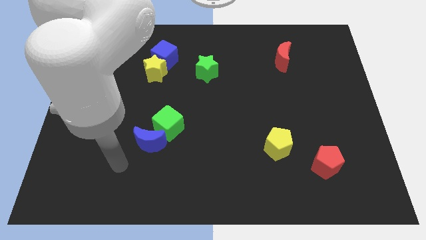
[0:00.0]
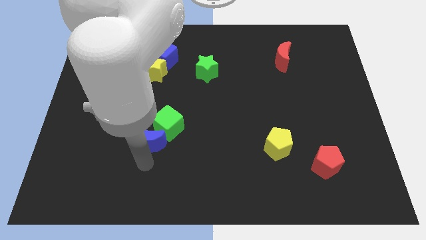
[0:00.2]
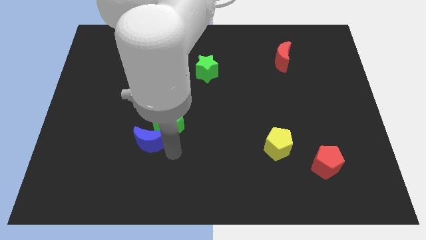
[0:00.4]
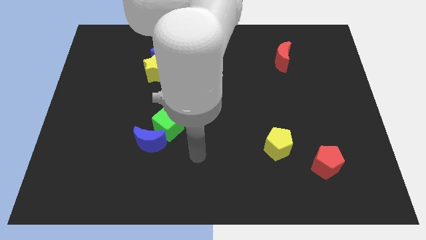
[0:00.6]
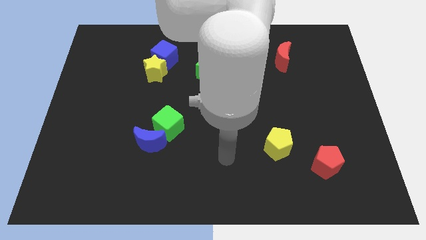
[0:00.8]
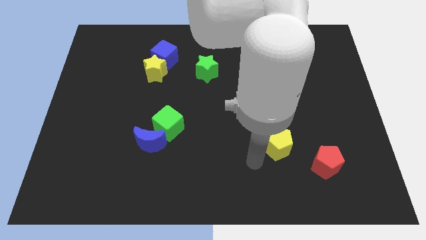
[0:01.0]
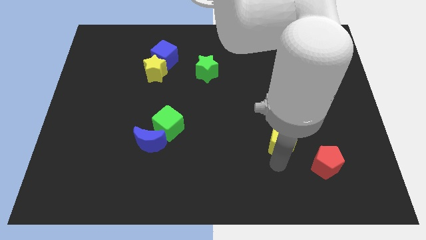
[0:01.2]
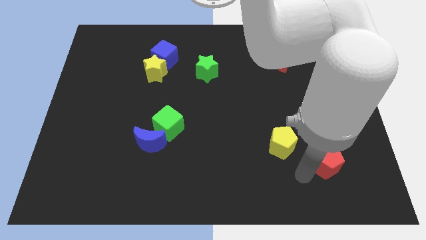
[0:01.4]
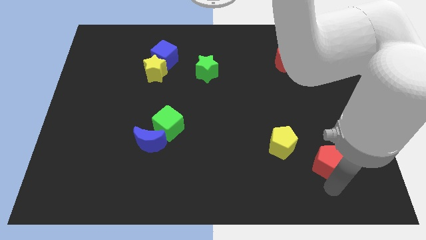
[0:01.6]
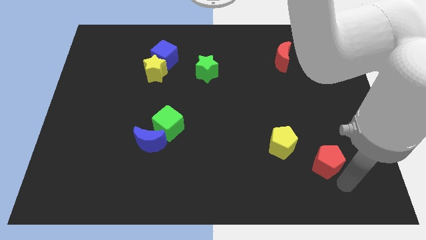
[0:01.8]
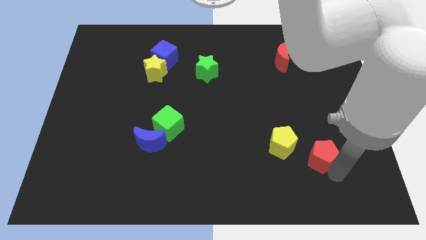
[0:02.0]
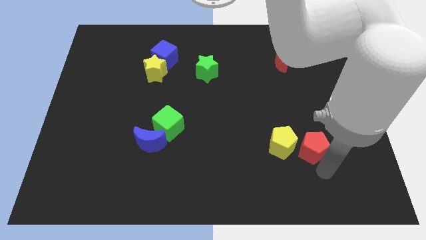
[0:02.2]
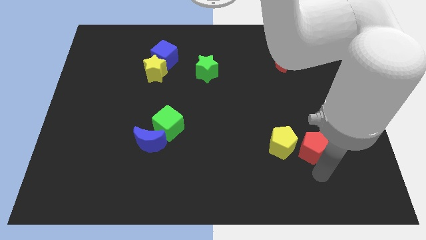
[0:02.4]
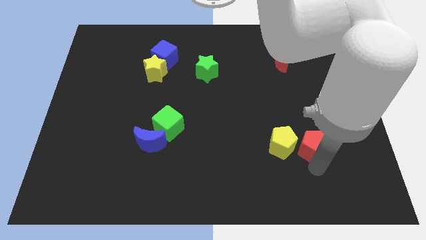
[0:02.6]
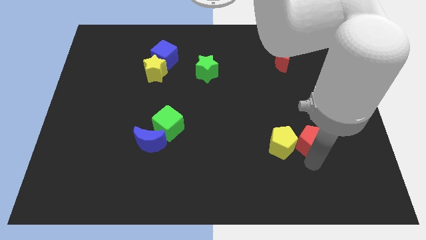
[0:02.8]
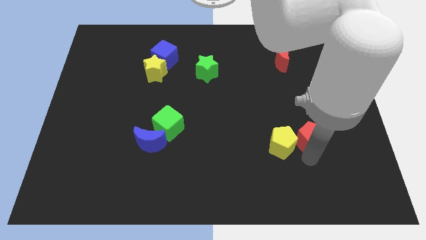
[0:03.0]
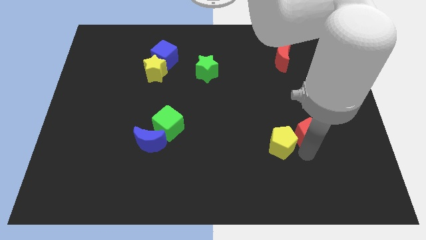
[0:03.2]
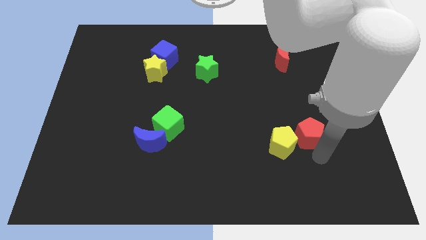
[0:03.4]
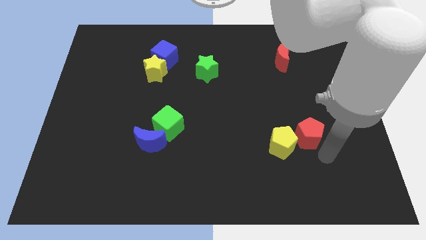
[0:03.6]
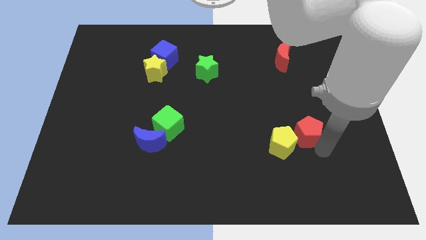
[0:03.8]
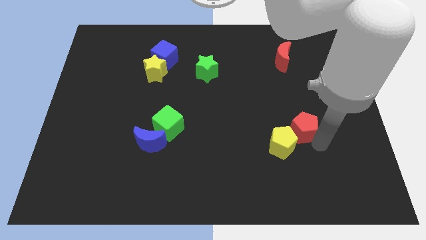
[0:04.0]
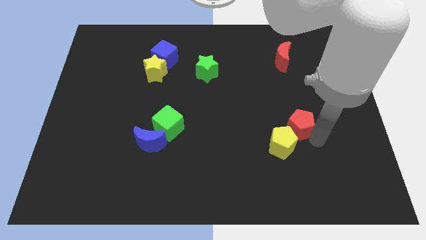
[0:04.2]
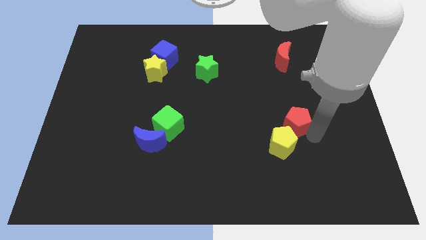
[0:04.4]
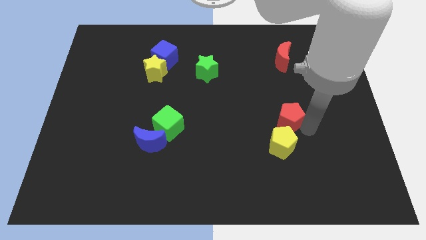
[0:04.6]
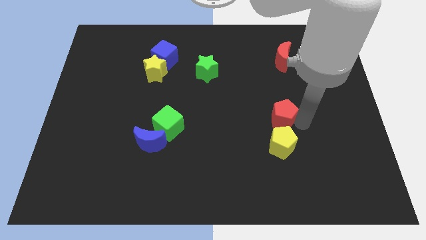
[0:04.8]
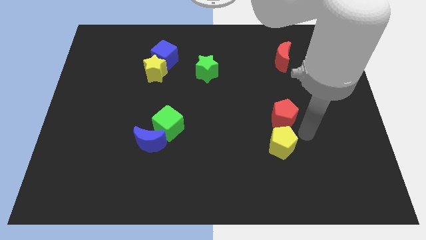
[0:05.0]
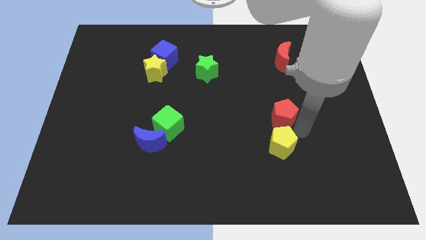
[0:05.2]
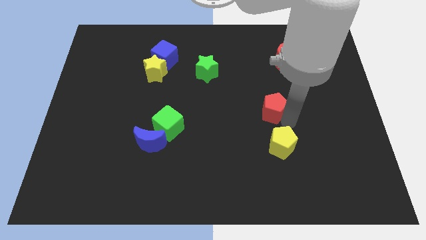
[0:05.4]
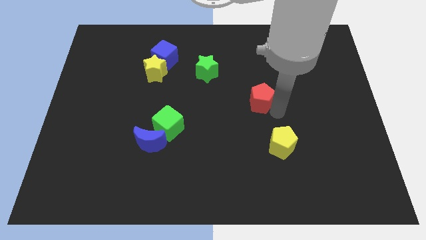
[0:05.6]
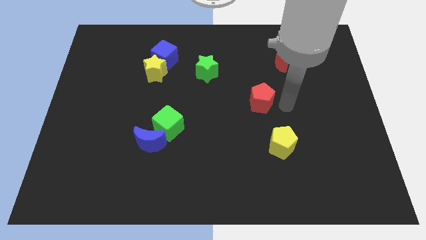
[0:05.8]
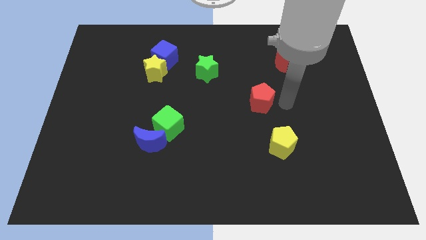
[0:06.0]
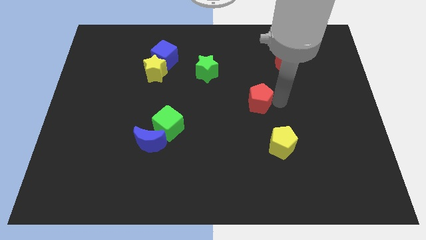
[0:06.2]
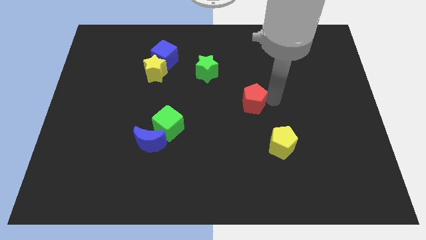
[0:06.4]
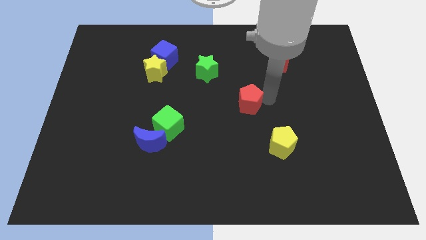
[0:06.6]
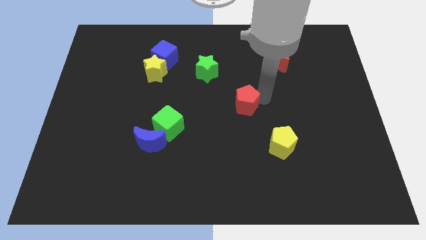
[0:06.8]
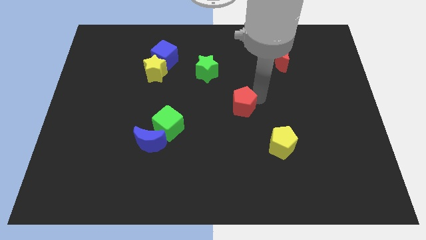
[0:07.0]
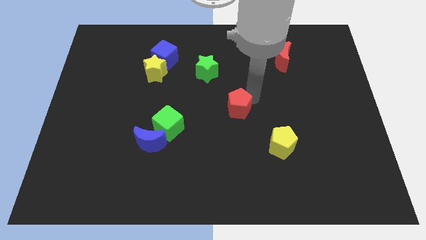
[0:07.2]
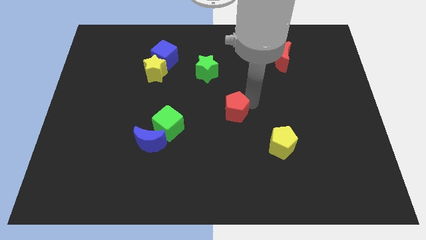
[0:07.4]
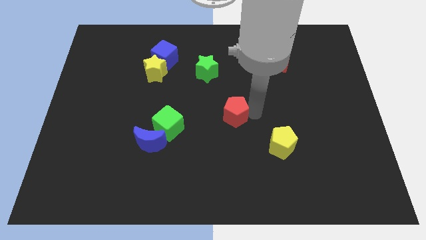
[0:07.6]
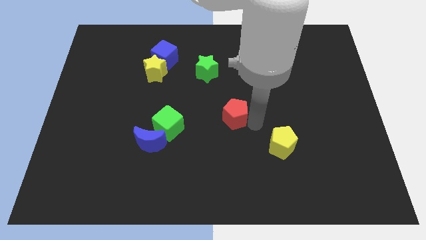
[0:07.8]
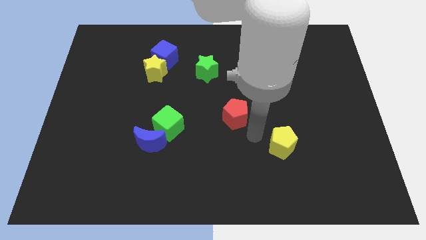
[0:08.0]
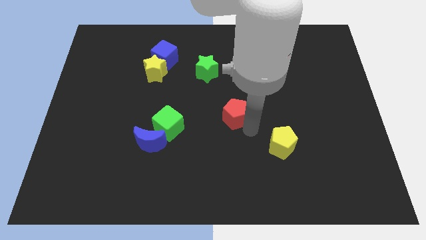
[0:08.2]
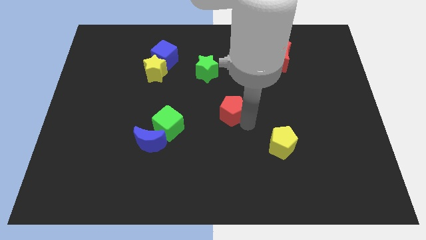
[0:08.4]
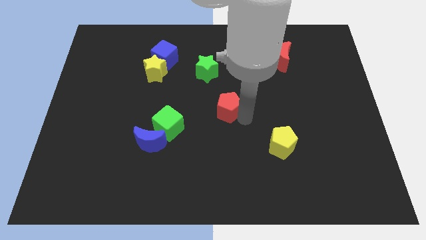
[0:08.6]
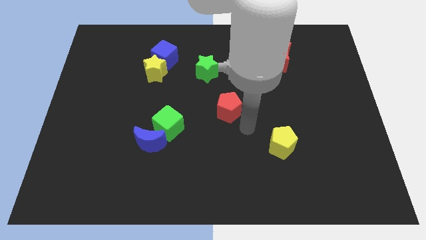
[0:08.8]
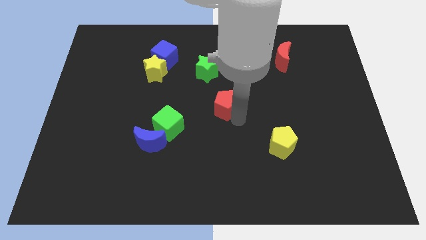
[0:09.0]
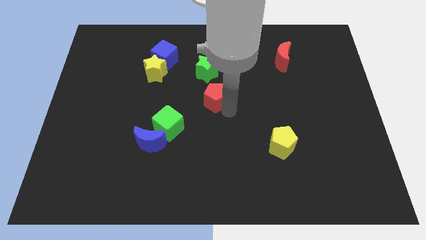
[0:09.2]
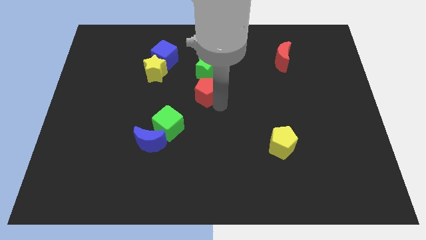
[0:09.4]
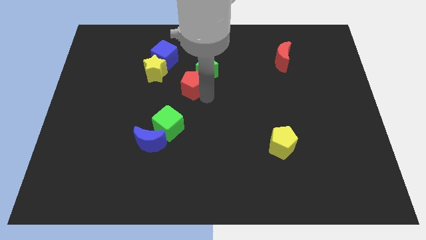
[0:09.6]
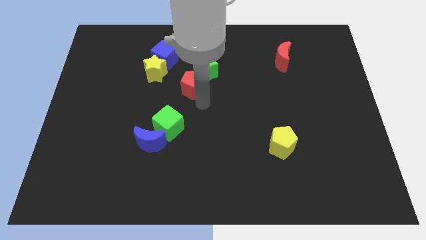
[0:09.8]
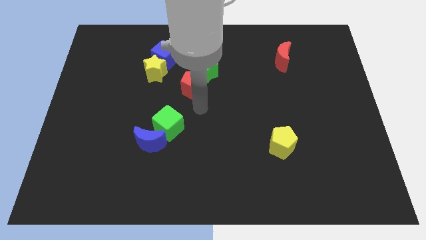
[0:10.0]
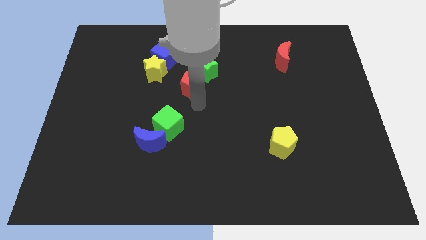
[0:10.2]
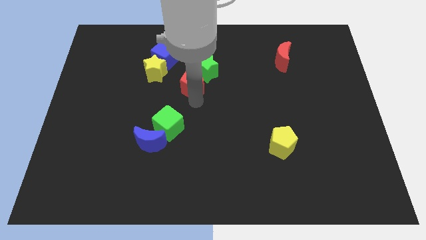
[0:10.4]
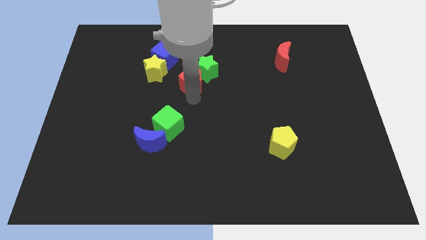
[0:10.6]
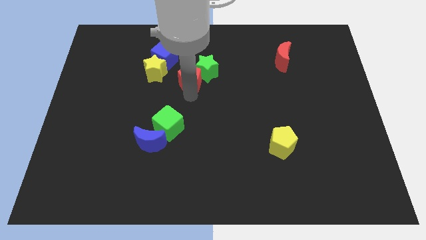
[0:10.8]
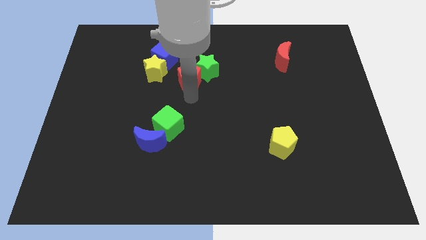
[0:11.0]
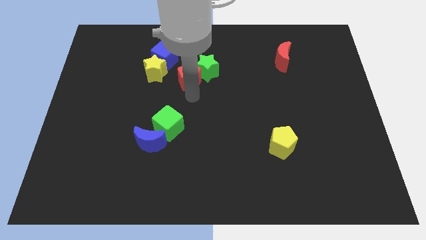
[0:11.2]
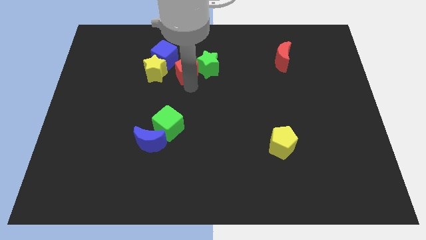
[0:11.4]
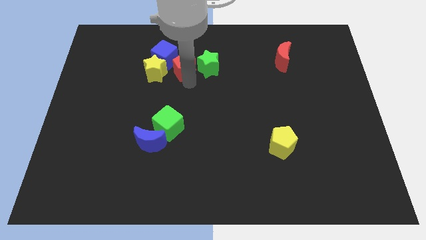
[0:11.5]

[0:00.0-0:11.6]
push the red pentagon to the top right of the yellow star

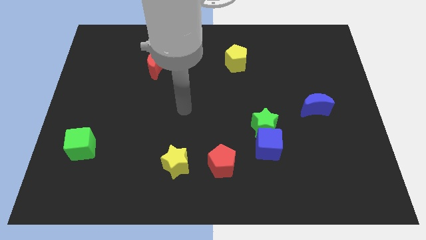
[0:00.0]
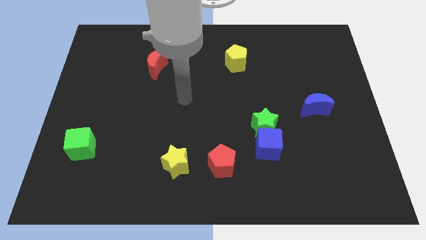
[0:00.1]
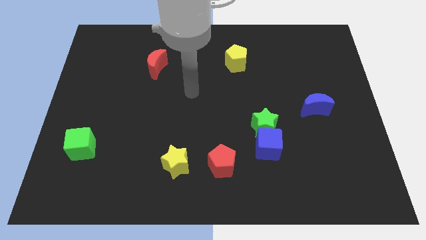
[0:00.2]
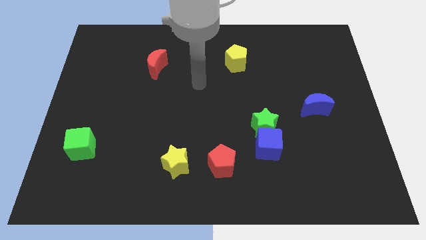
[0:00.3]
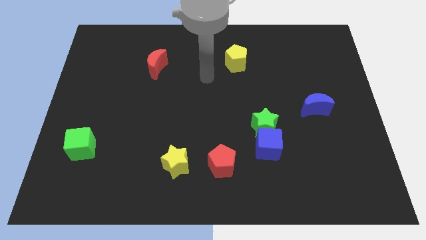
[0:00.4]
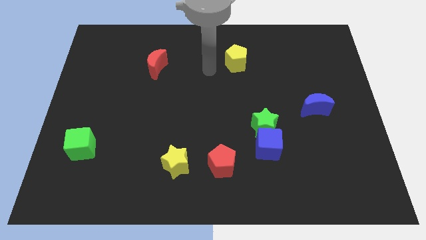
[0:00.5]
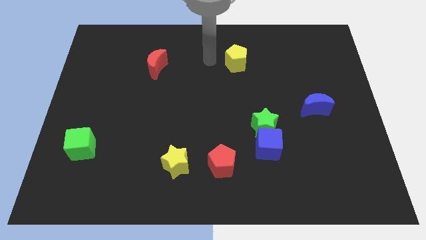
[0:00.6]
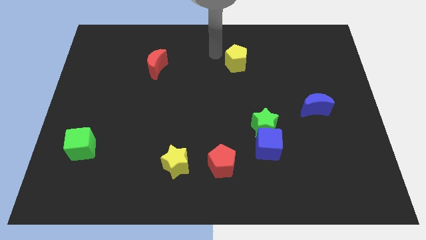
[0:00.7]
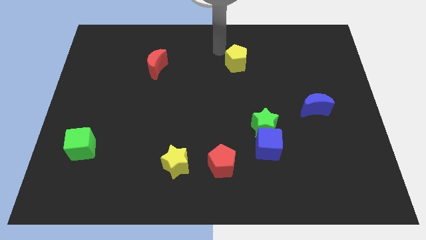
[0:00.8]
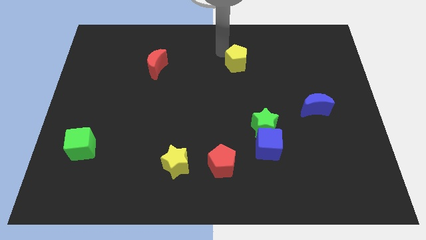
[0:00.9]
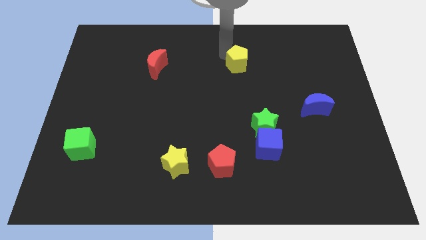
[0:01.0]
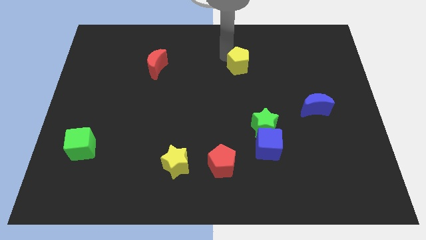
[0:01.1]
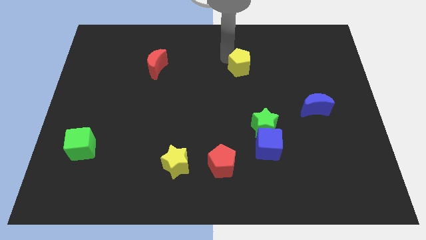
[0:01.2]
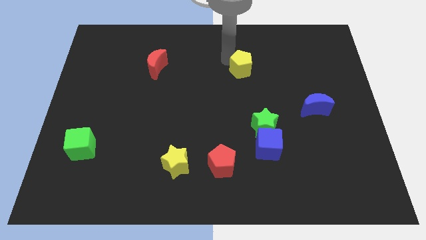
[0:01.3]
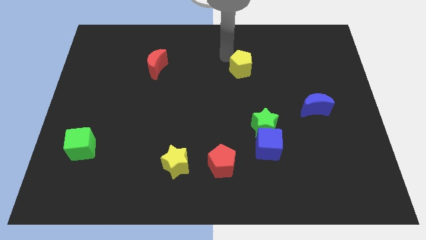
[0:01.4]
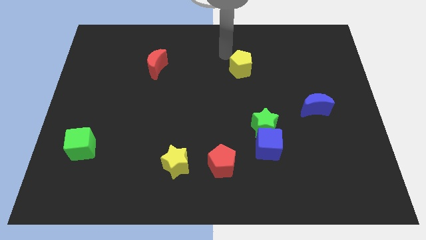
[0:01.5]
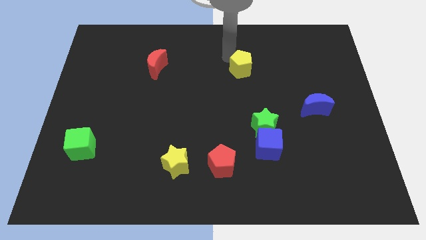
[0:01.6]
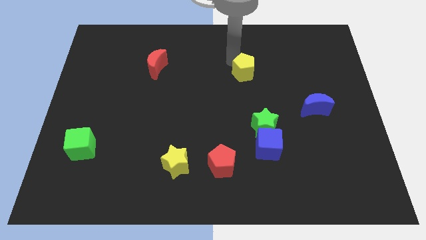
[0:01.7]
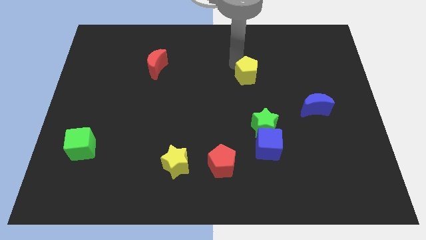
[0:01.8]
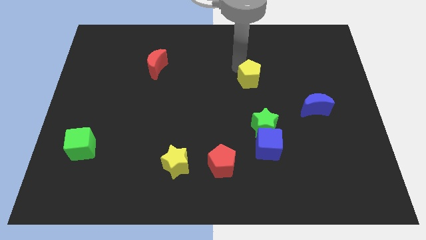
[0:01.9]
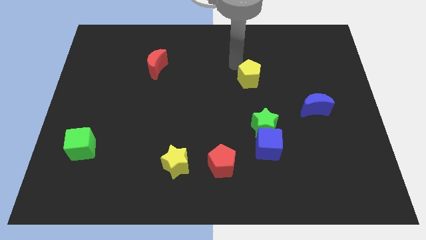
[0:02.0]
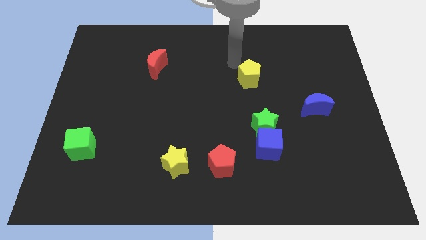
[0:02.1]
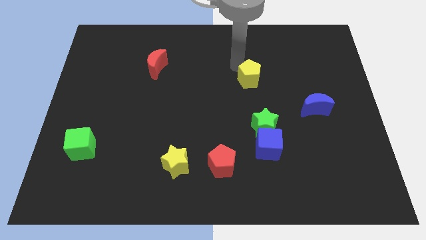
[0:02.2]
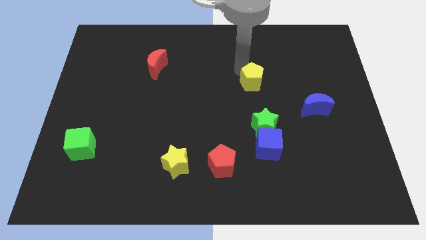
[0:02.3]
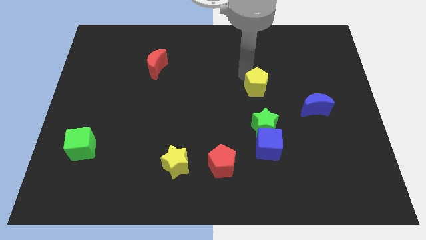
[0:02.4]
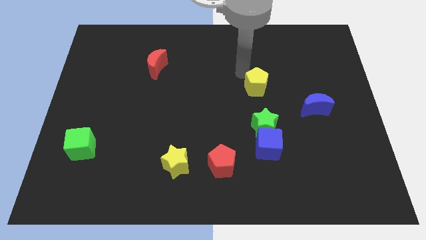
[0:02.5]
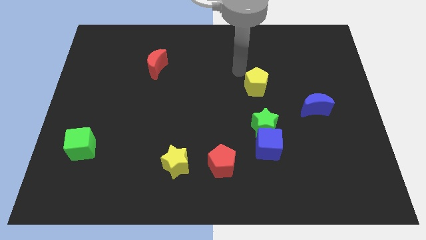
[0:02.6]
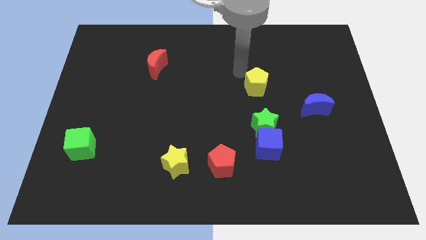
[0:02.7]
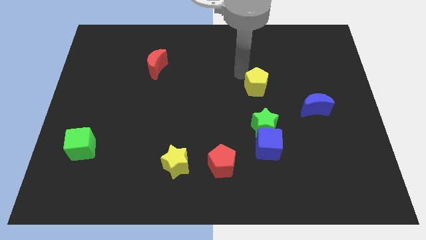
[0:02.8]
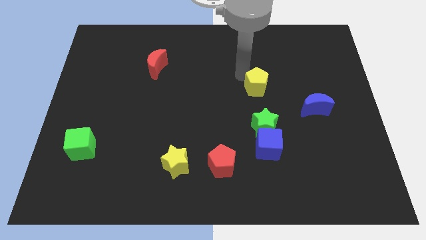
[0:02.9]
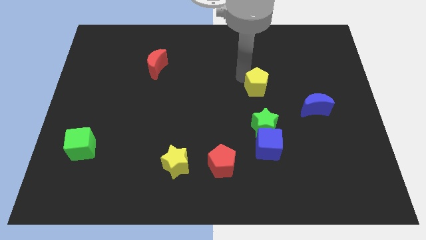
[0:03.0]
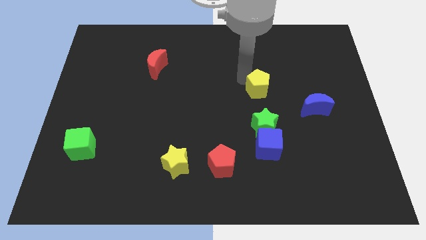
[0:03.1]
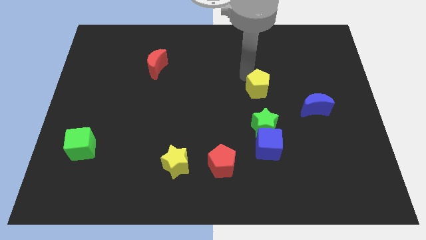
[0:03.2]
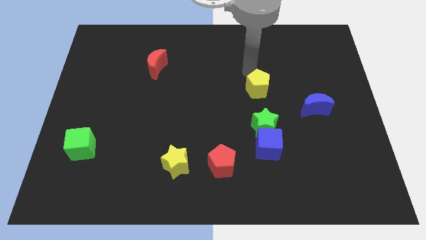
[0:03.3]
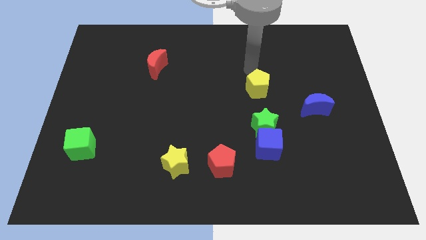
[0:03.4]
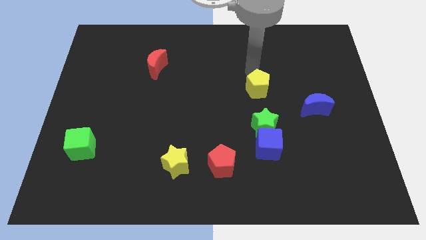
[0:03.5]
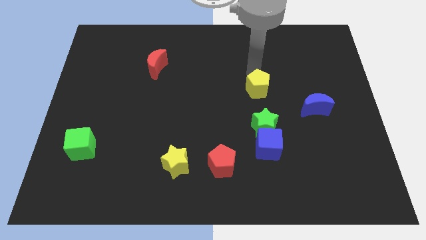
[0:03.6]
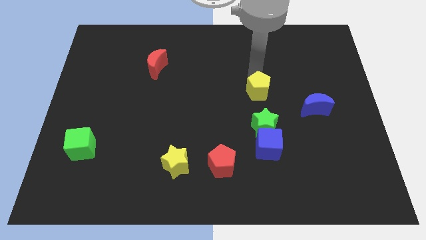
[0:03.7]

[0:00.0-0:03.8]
move the yellow pentagon to the top side of the blue cube
